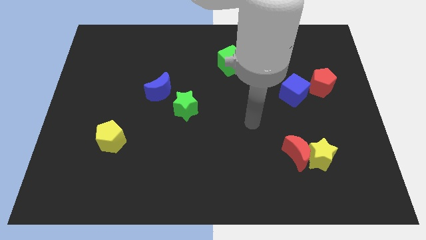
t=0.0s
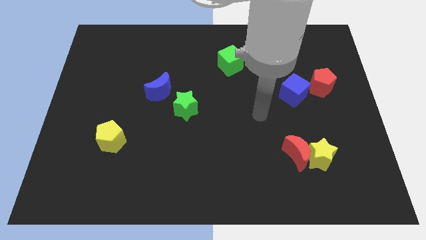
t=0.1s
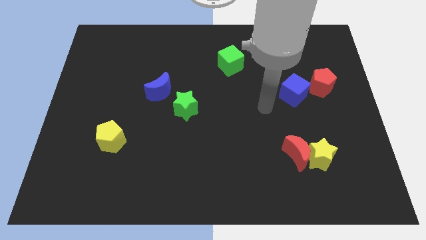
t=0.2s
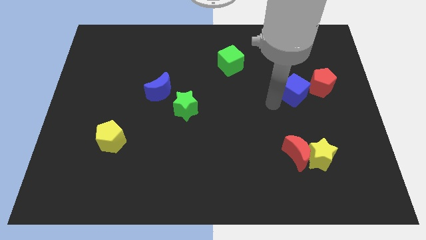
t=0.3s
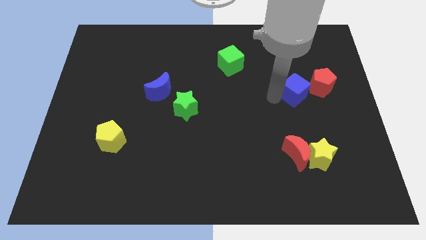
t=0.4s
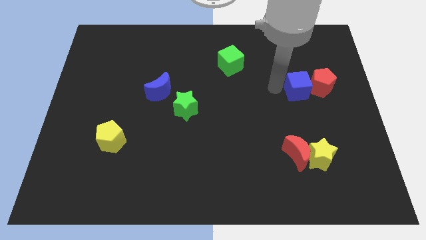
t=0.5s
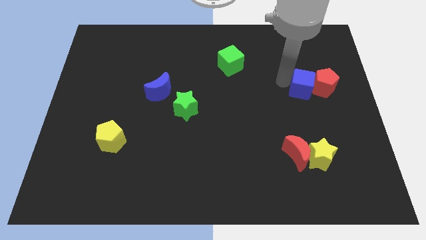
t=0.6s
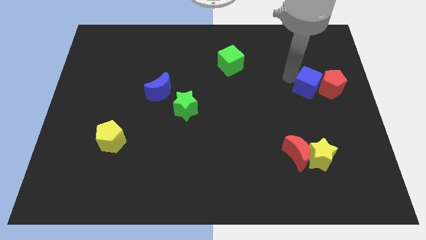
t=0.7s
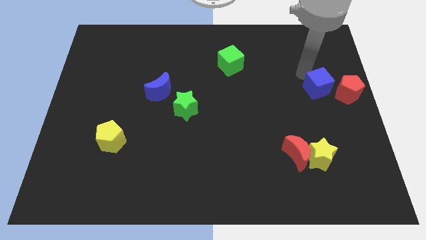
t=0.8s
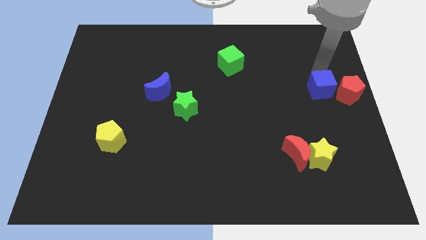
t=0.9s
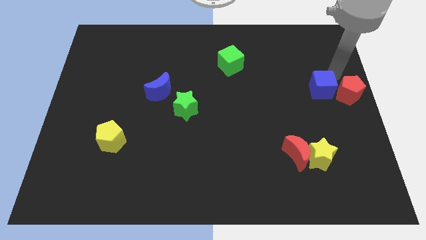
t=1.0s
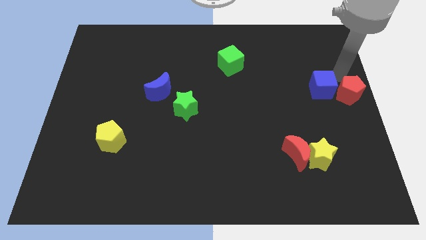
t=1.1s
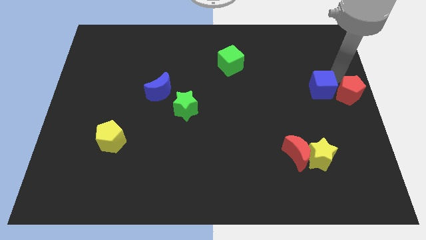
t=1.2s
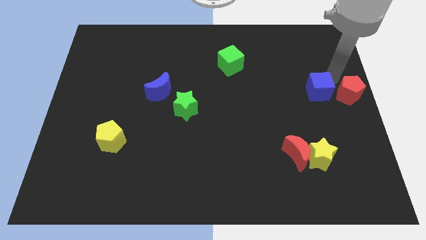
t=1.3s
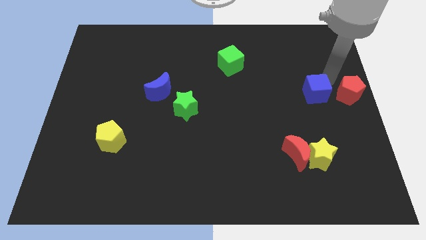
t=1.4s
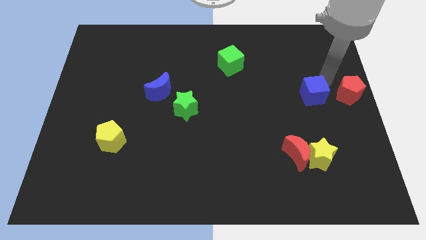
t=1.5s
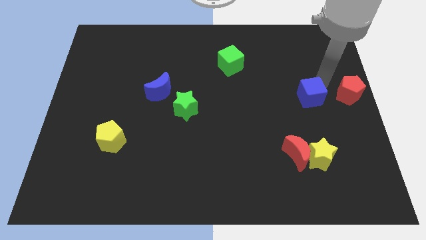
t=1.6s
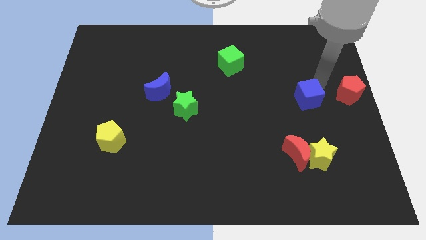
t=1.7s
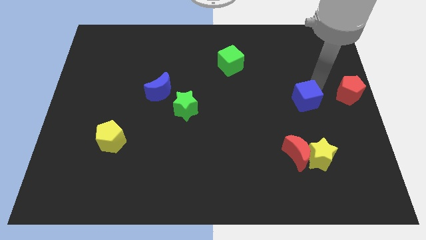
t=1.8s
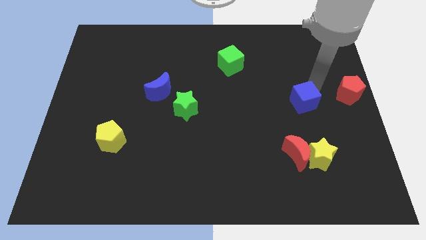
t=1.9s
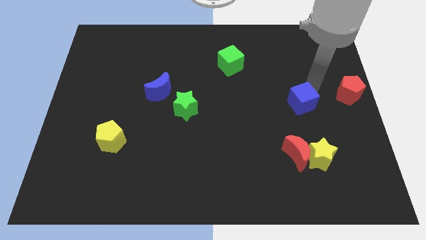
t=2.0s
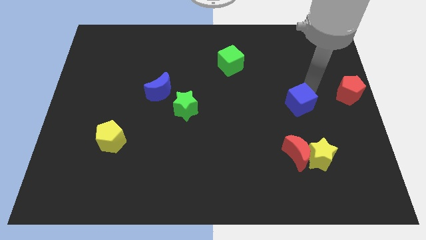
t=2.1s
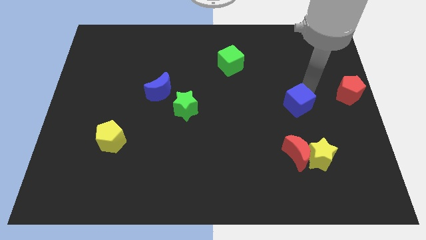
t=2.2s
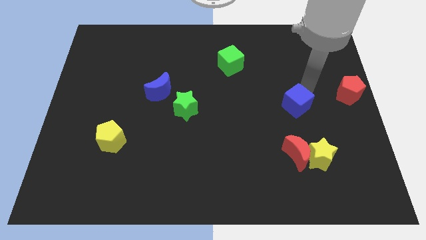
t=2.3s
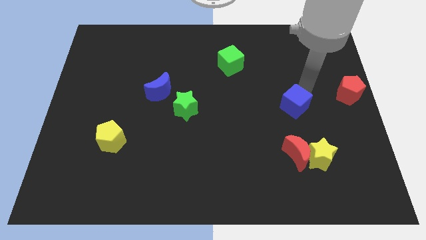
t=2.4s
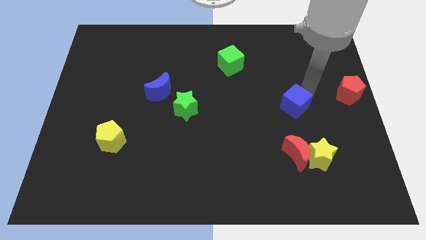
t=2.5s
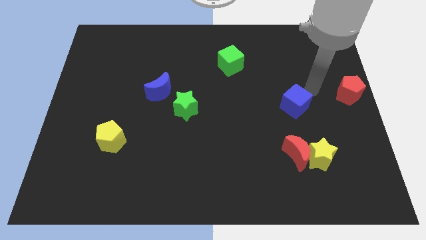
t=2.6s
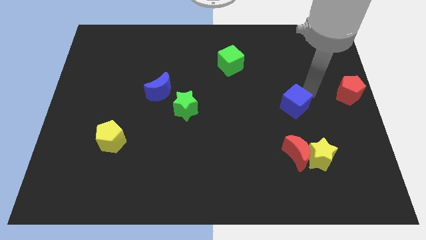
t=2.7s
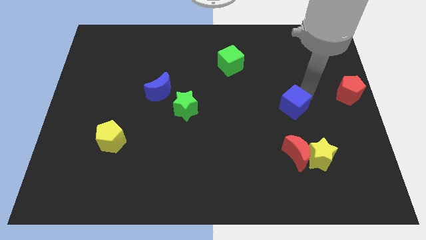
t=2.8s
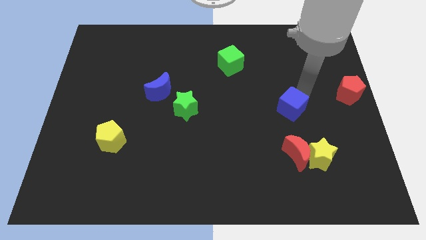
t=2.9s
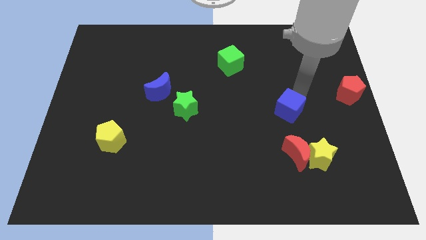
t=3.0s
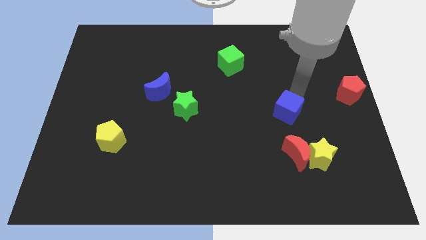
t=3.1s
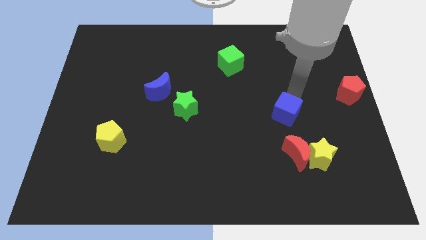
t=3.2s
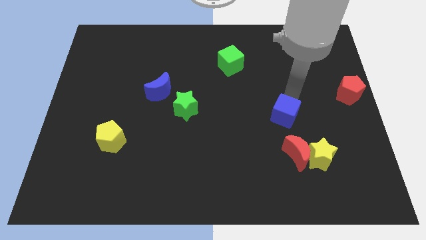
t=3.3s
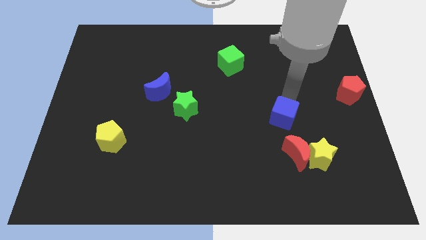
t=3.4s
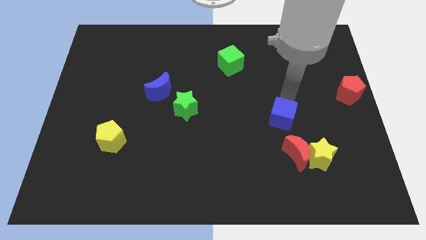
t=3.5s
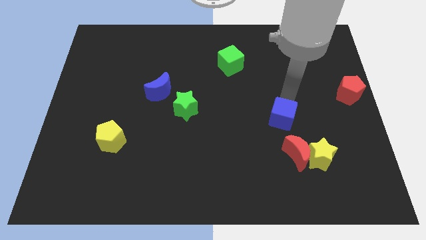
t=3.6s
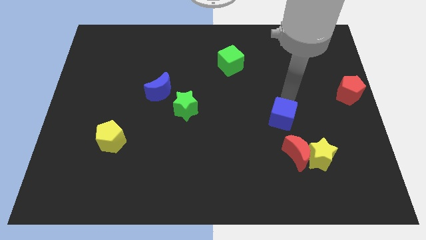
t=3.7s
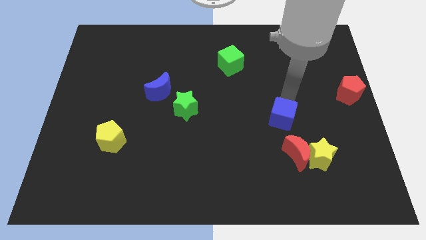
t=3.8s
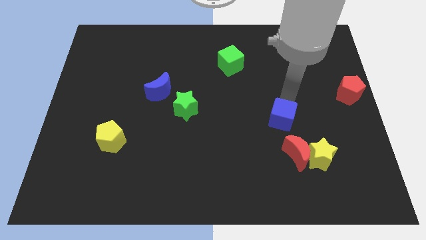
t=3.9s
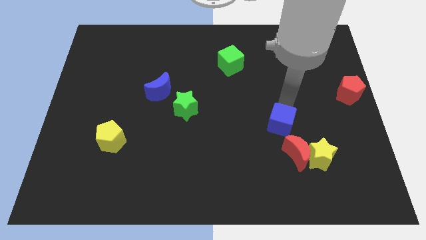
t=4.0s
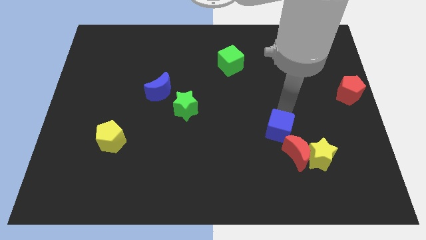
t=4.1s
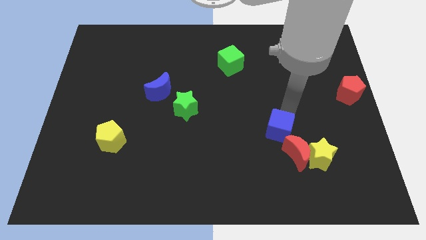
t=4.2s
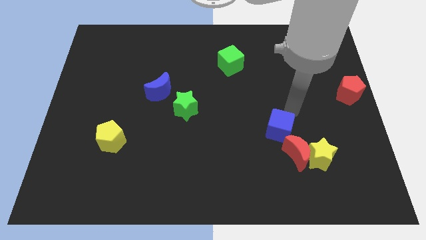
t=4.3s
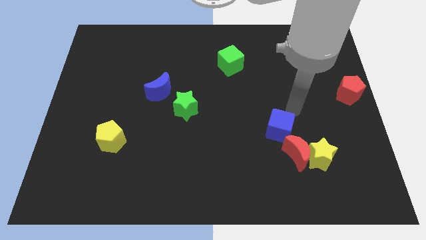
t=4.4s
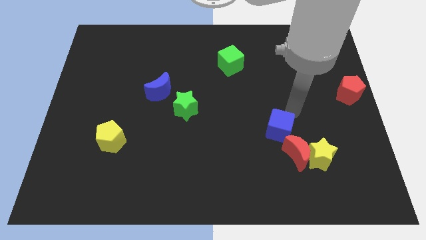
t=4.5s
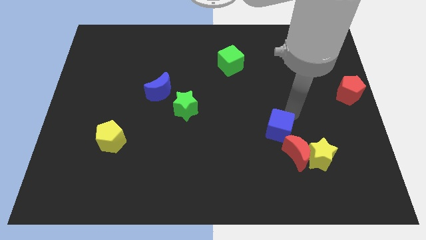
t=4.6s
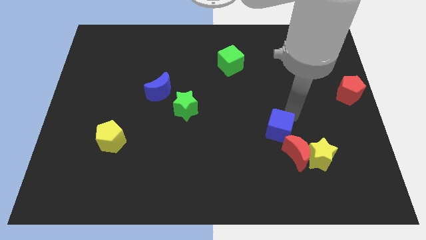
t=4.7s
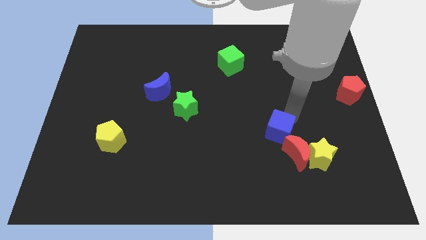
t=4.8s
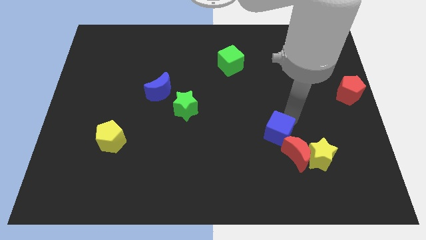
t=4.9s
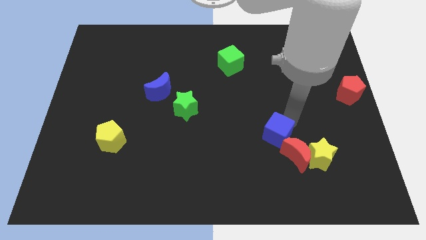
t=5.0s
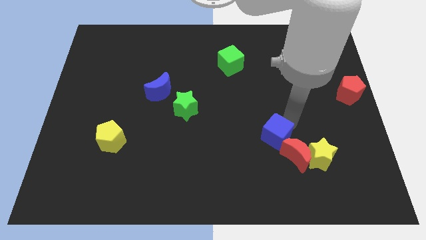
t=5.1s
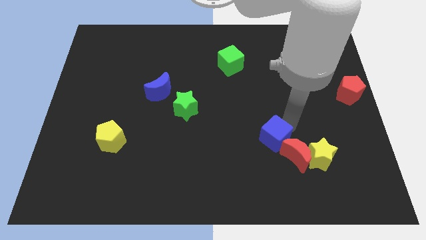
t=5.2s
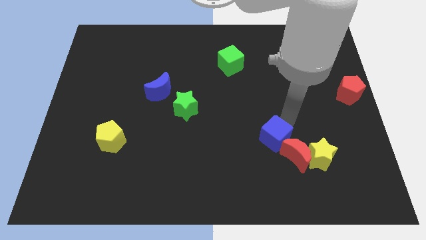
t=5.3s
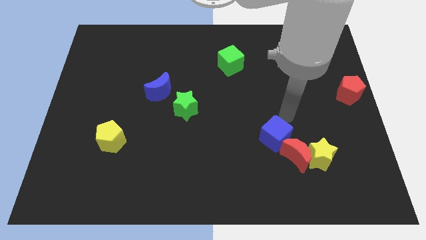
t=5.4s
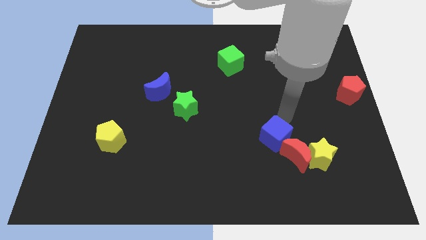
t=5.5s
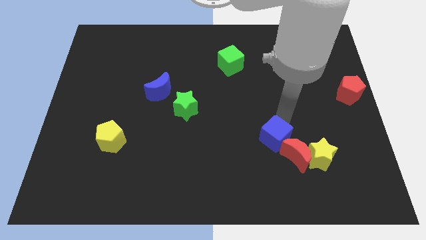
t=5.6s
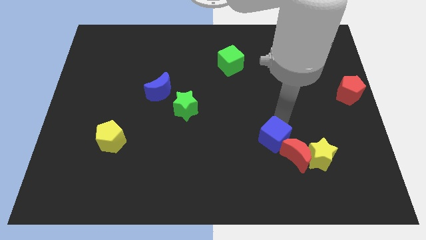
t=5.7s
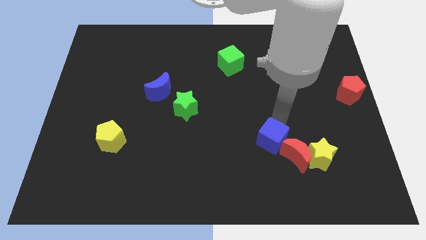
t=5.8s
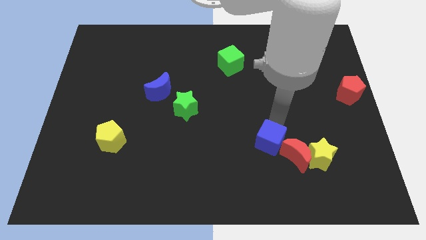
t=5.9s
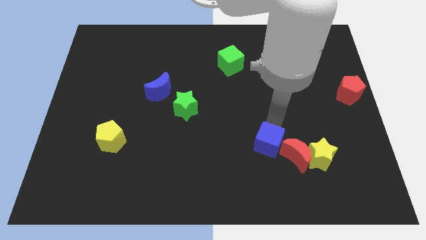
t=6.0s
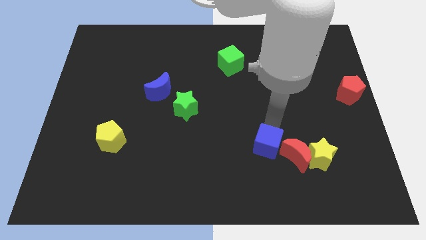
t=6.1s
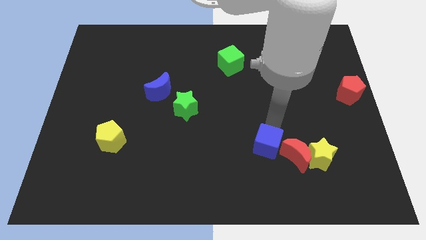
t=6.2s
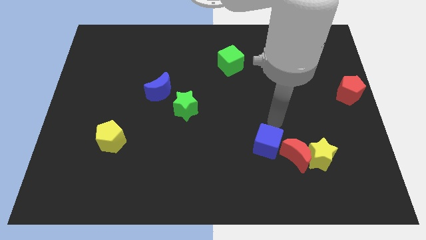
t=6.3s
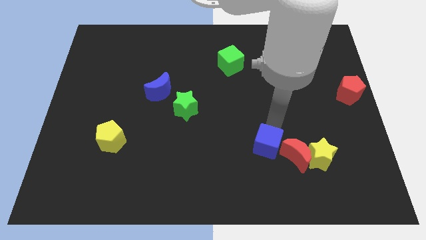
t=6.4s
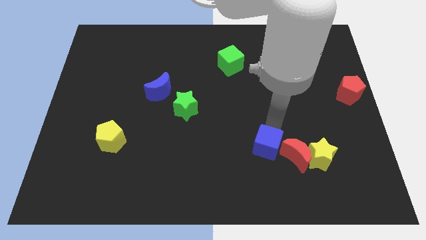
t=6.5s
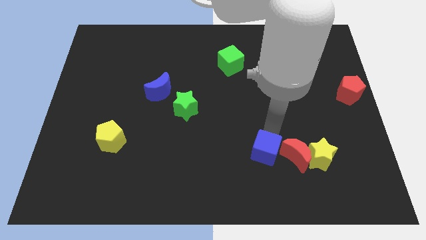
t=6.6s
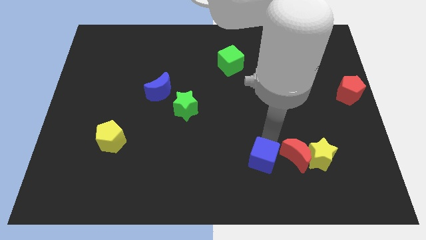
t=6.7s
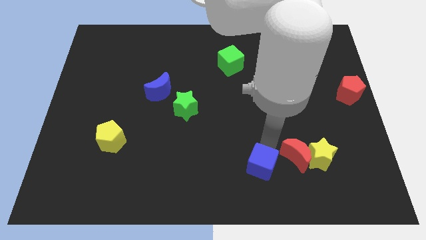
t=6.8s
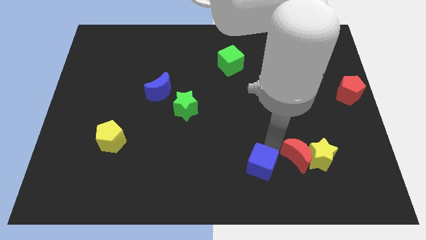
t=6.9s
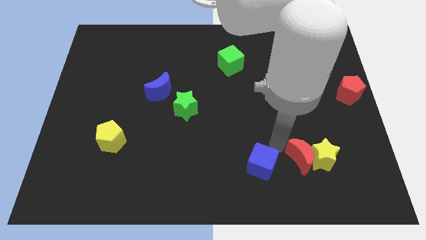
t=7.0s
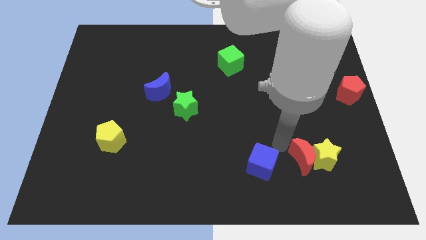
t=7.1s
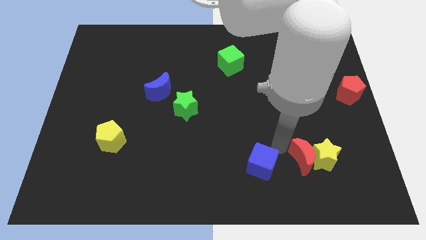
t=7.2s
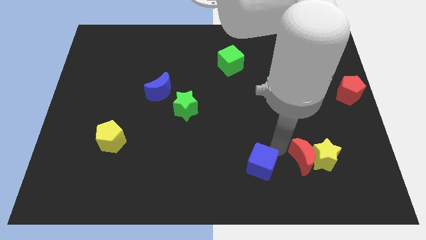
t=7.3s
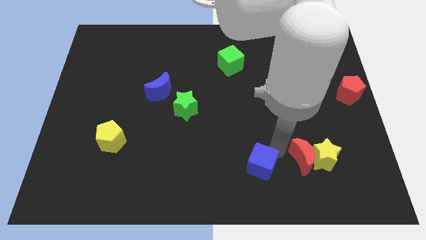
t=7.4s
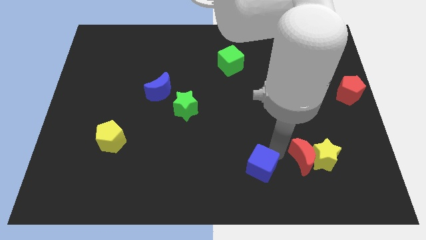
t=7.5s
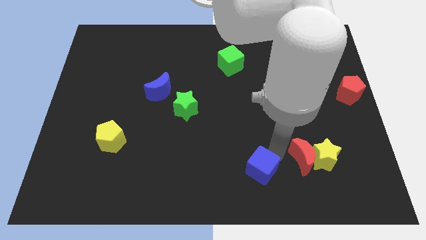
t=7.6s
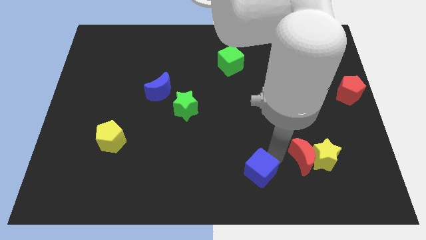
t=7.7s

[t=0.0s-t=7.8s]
put the blue cube to the bottom side
